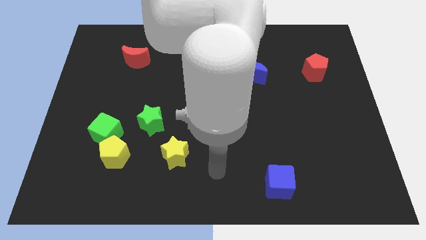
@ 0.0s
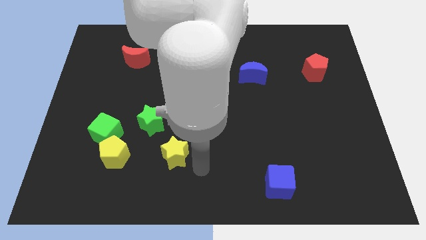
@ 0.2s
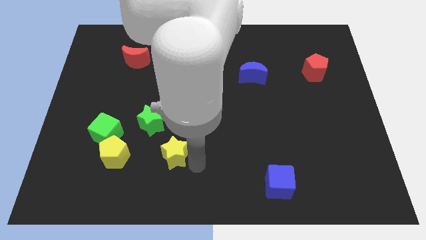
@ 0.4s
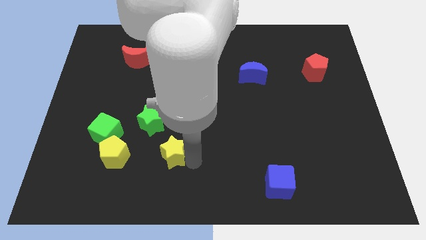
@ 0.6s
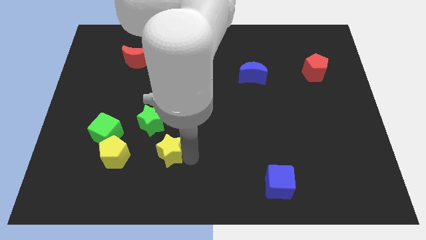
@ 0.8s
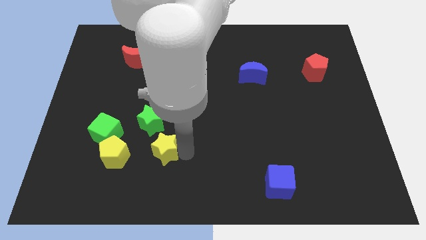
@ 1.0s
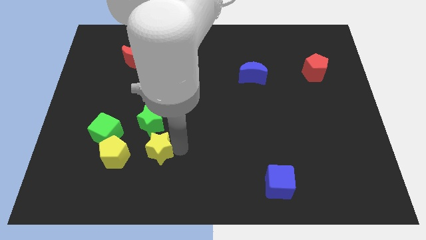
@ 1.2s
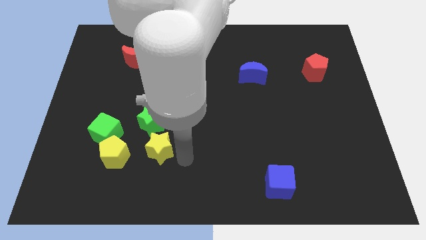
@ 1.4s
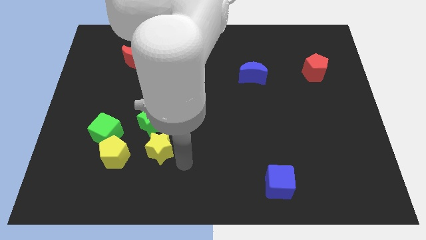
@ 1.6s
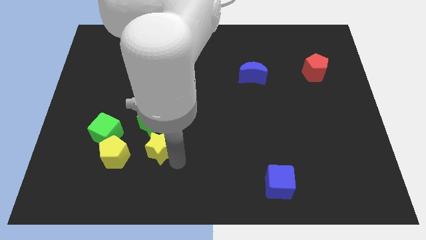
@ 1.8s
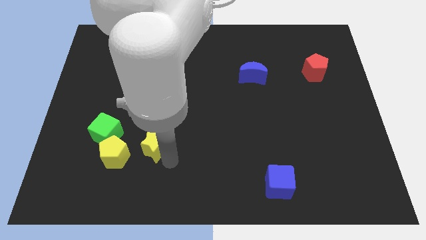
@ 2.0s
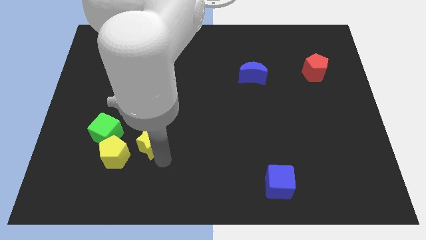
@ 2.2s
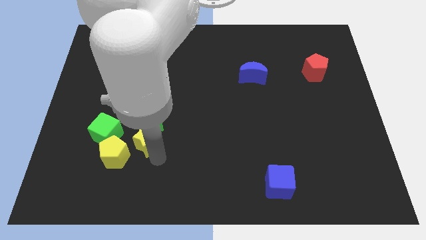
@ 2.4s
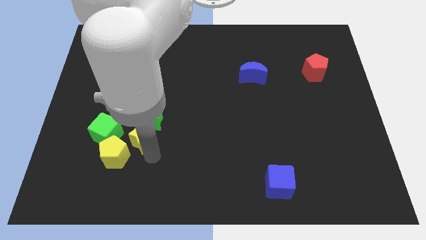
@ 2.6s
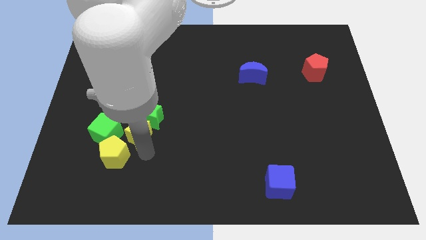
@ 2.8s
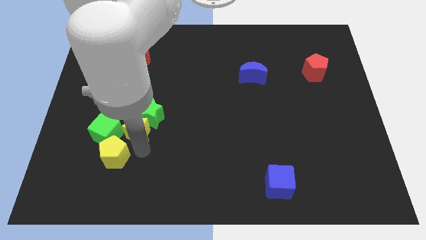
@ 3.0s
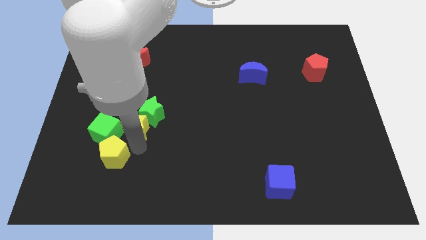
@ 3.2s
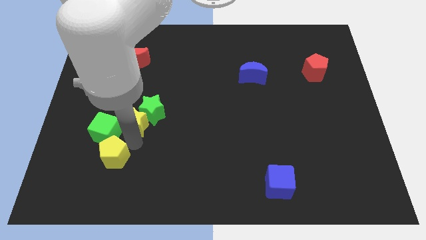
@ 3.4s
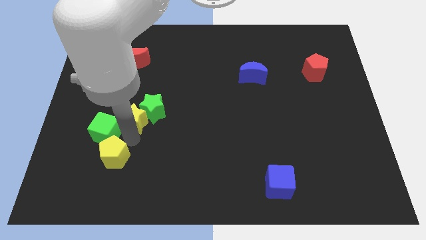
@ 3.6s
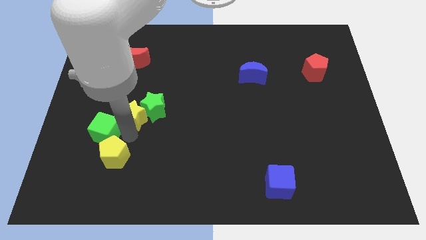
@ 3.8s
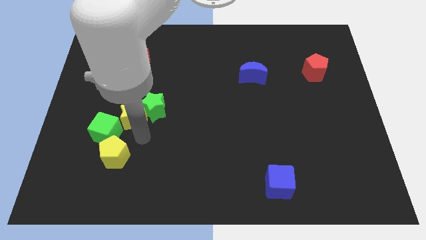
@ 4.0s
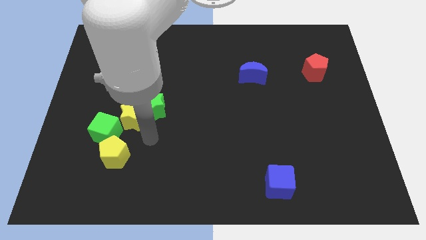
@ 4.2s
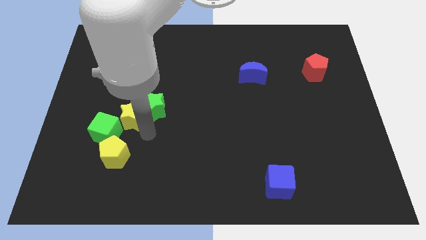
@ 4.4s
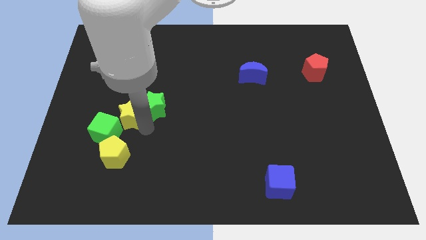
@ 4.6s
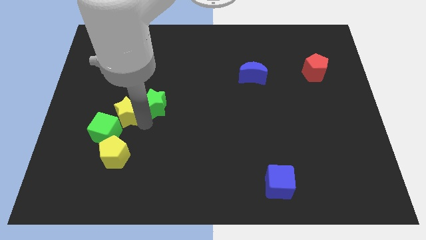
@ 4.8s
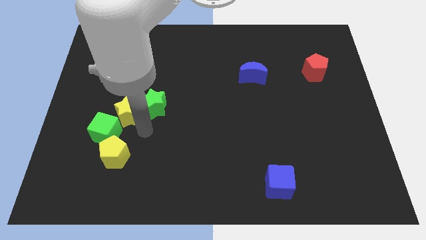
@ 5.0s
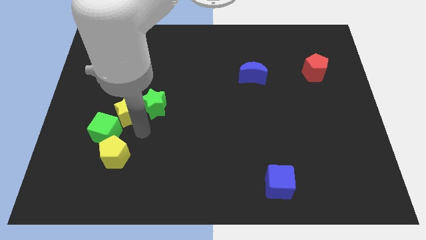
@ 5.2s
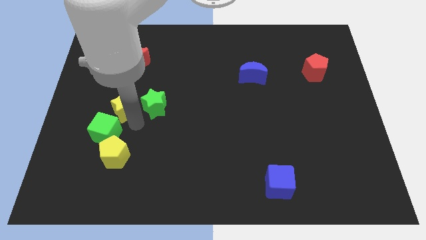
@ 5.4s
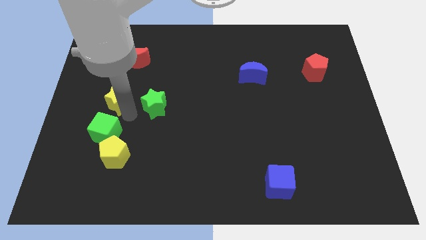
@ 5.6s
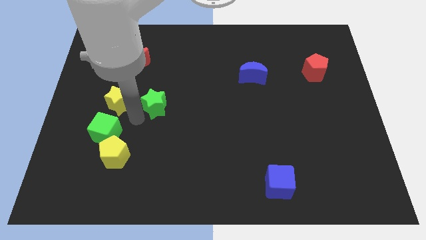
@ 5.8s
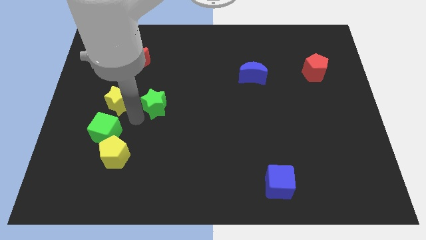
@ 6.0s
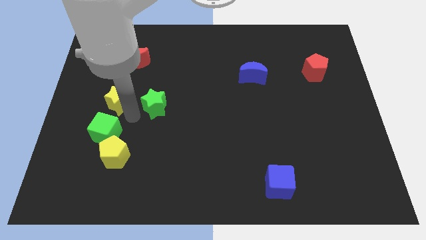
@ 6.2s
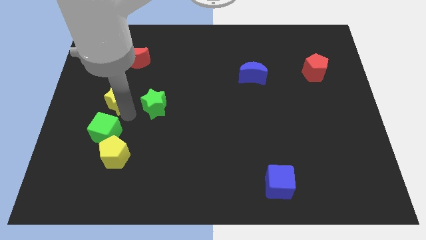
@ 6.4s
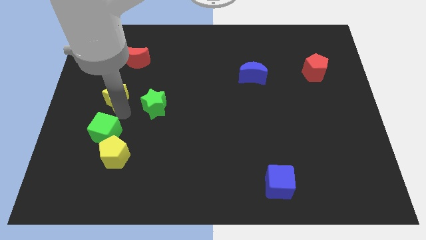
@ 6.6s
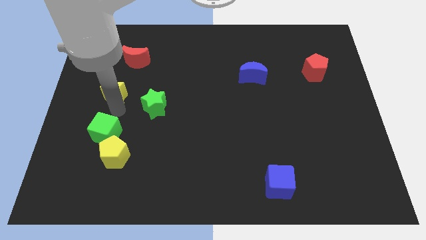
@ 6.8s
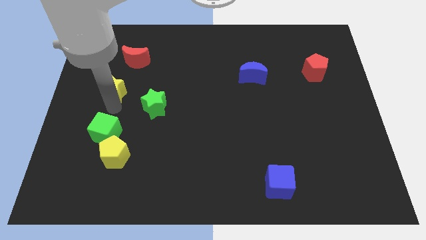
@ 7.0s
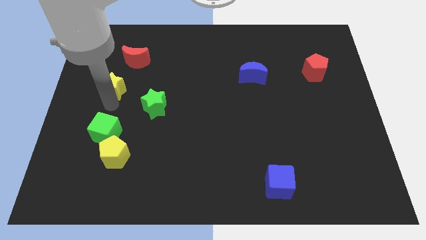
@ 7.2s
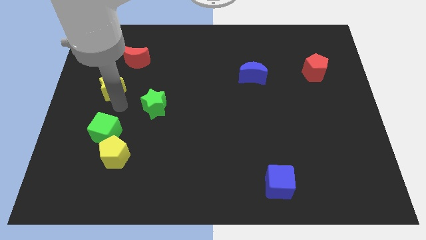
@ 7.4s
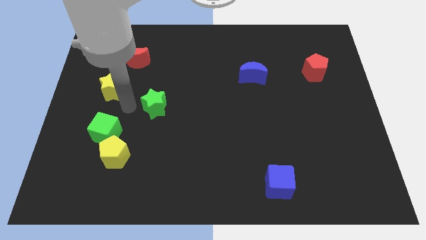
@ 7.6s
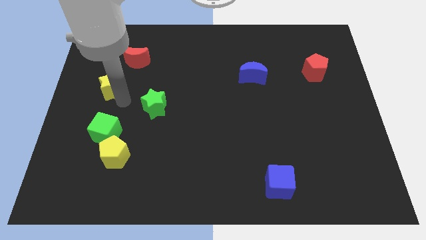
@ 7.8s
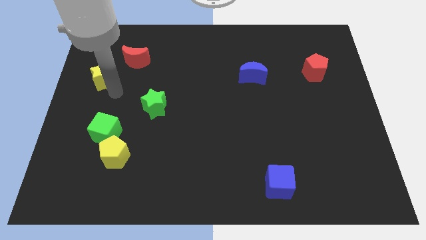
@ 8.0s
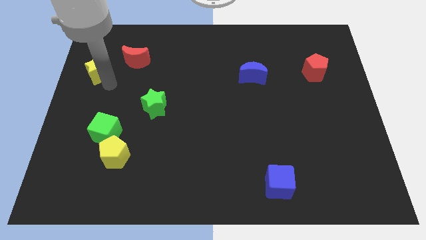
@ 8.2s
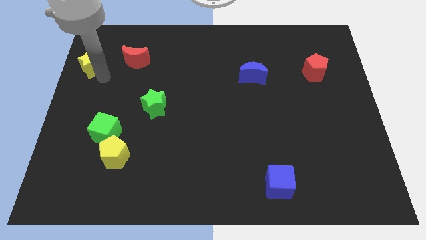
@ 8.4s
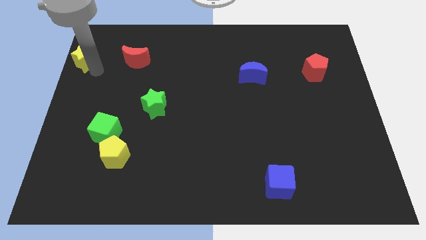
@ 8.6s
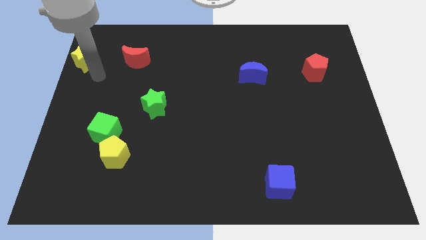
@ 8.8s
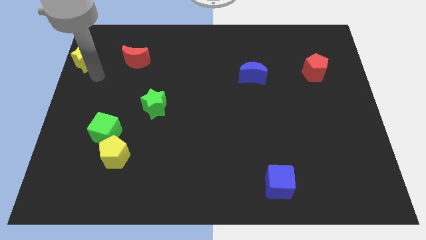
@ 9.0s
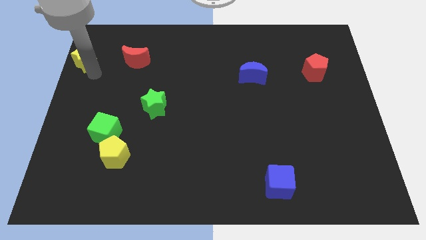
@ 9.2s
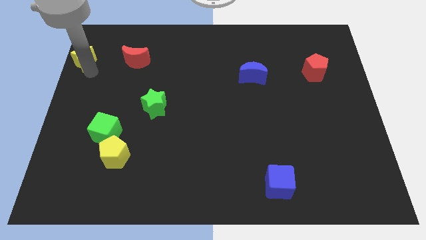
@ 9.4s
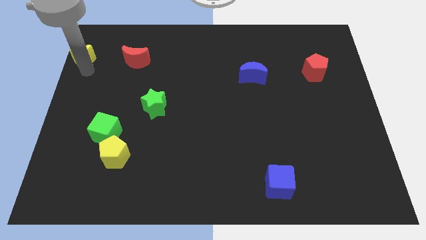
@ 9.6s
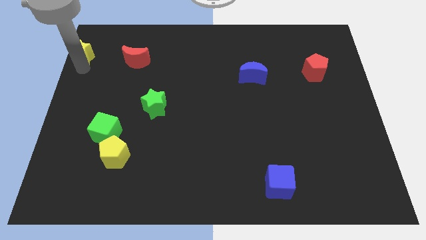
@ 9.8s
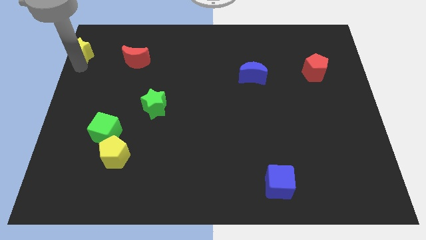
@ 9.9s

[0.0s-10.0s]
put the yellow star to the top left of the board

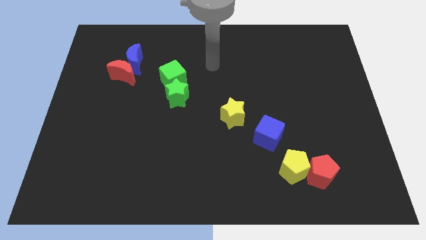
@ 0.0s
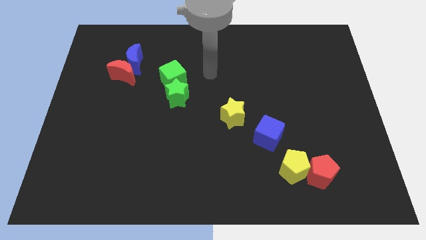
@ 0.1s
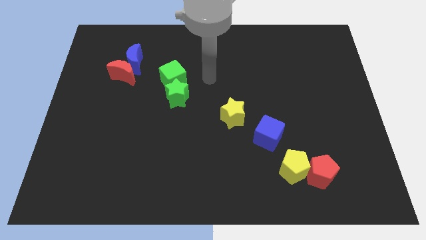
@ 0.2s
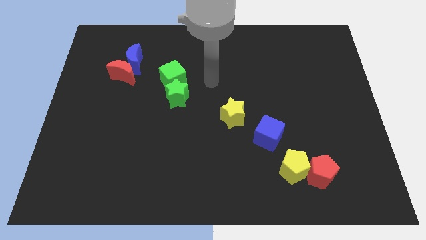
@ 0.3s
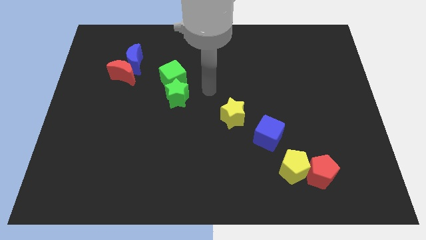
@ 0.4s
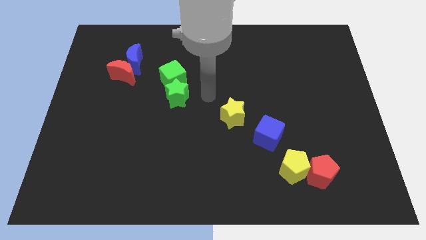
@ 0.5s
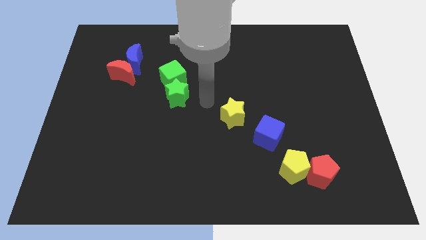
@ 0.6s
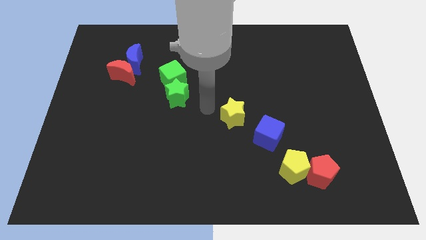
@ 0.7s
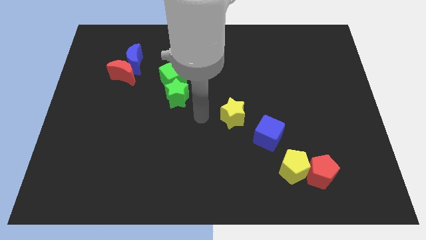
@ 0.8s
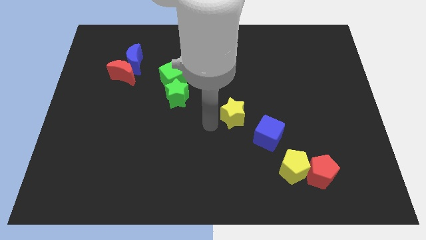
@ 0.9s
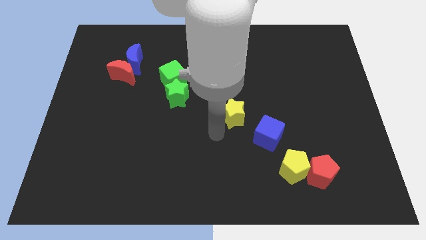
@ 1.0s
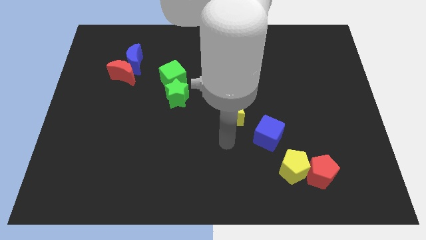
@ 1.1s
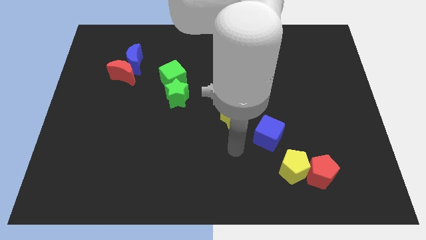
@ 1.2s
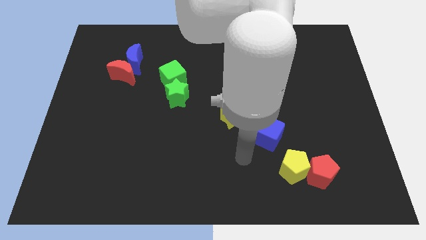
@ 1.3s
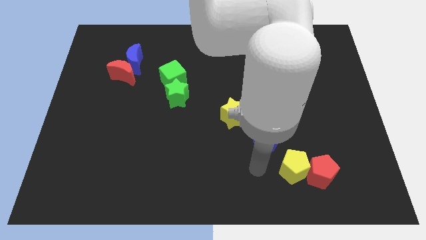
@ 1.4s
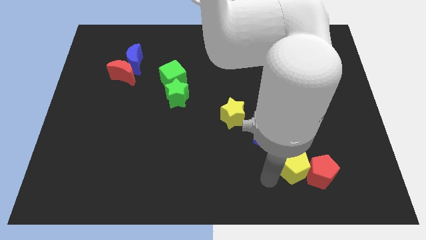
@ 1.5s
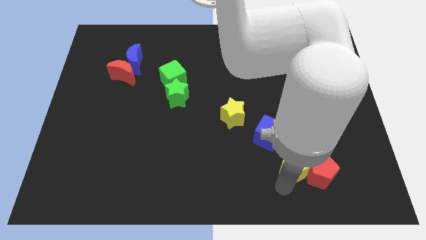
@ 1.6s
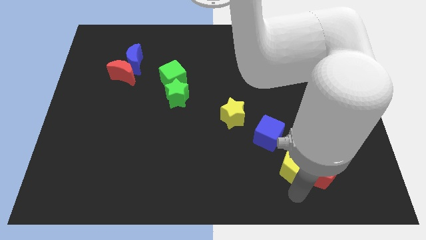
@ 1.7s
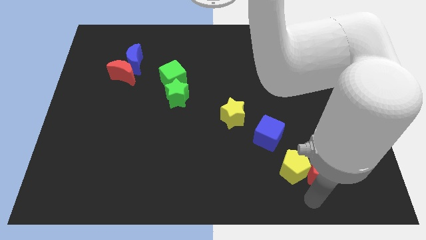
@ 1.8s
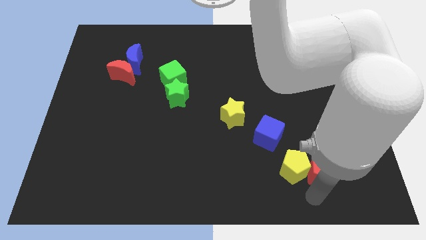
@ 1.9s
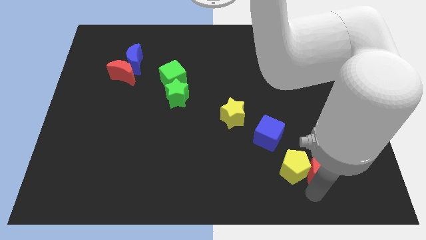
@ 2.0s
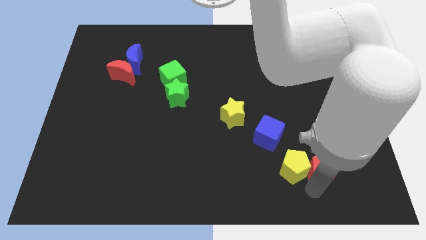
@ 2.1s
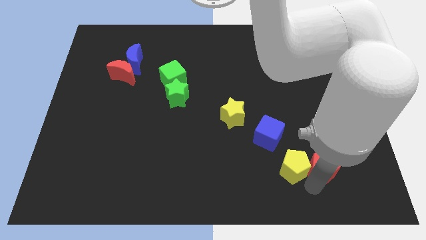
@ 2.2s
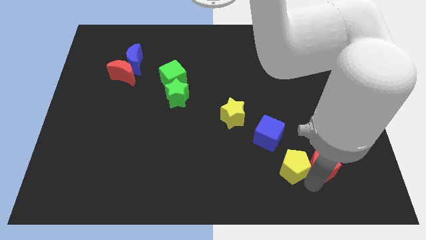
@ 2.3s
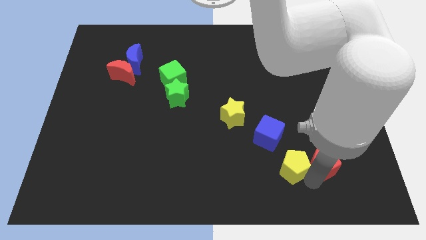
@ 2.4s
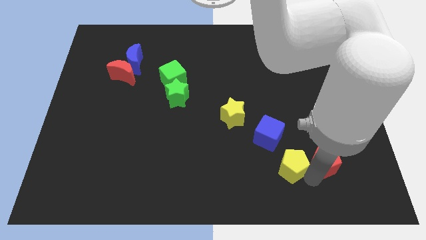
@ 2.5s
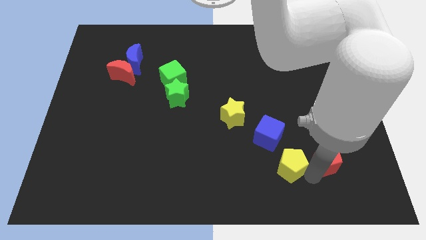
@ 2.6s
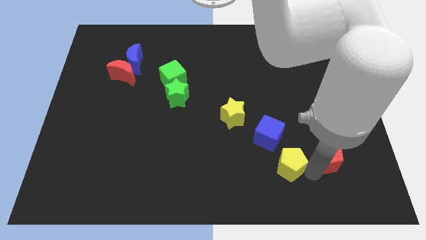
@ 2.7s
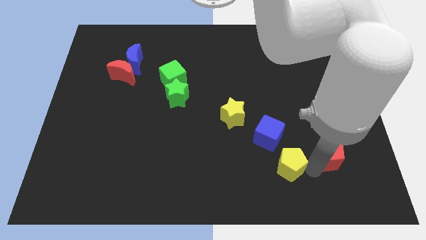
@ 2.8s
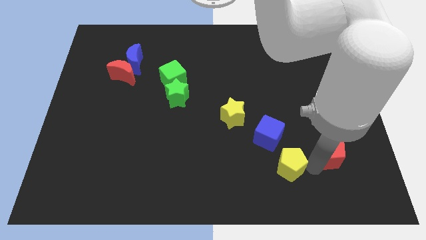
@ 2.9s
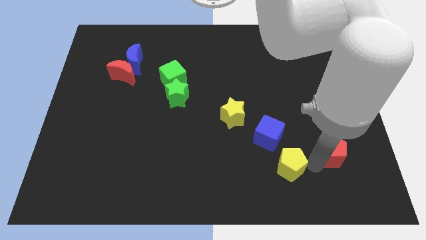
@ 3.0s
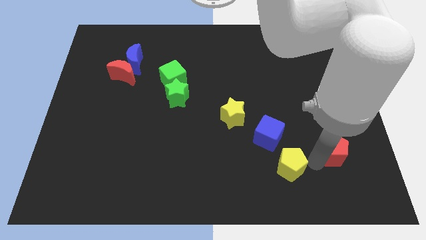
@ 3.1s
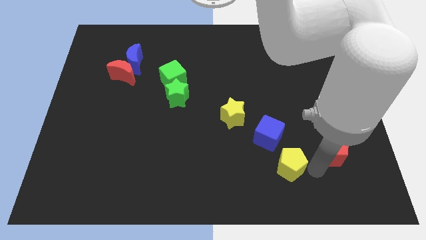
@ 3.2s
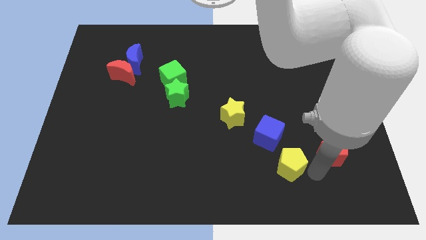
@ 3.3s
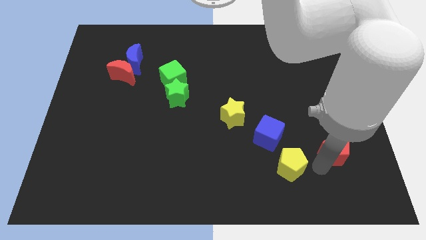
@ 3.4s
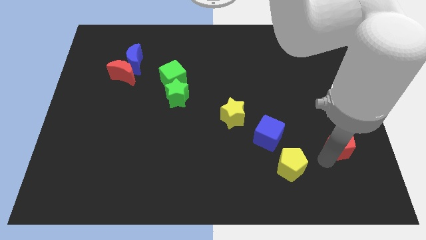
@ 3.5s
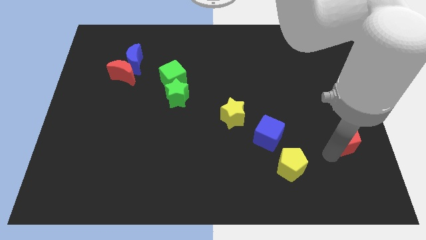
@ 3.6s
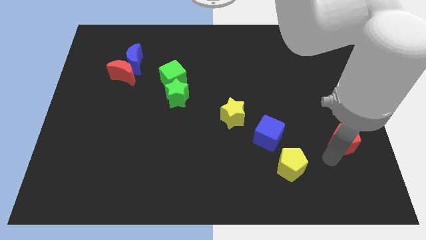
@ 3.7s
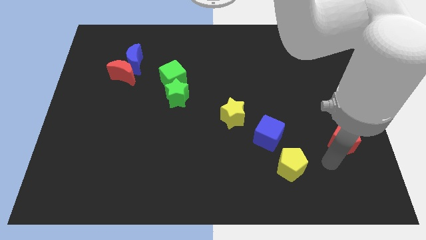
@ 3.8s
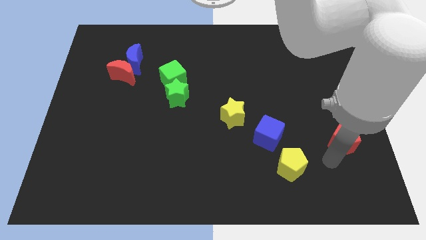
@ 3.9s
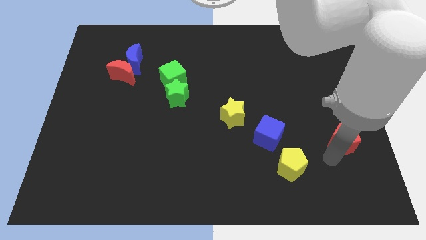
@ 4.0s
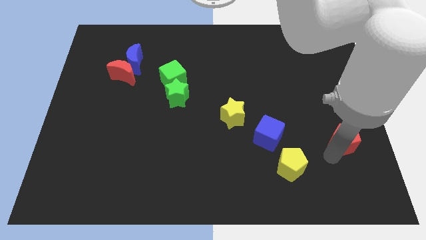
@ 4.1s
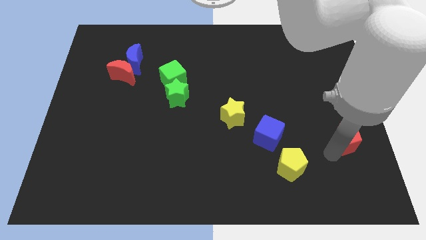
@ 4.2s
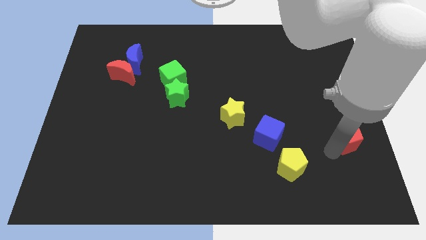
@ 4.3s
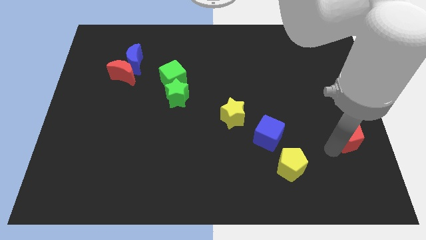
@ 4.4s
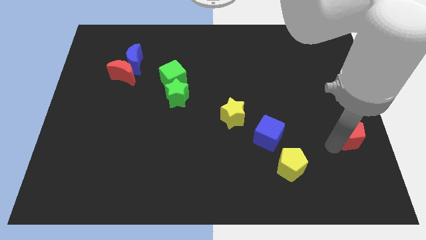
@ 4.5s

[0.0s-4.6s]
put the red pentagon to the center right
